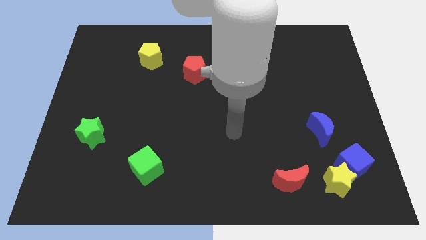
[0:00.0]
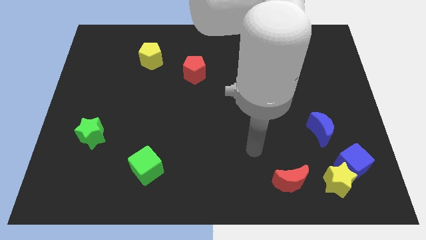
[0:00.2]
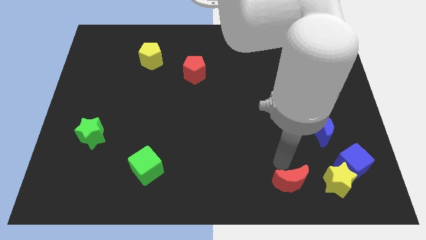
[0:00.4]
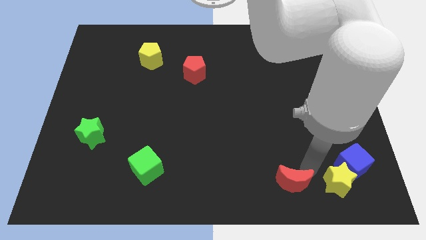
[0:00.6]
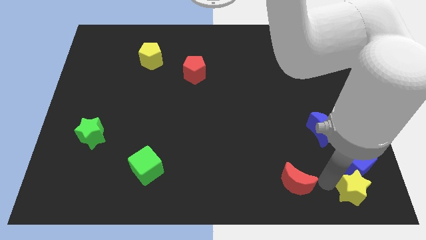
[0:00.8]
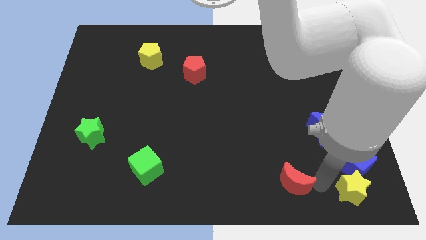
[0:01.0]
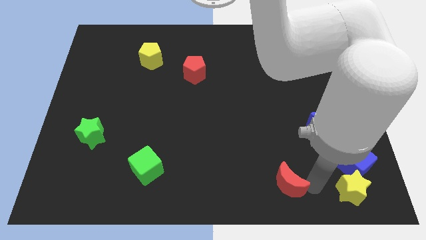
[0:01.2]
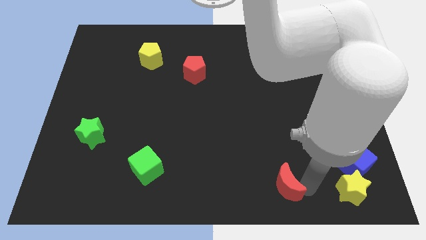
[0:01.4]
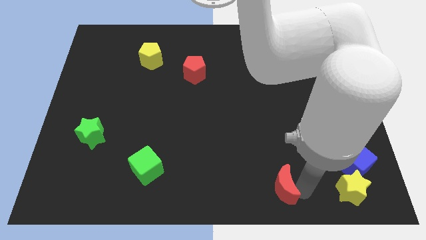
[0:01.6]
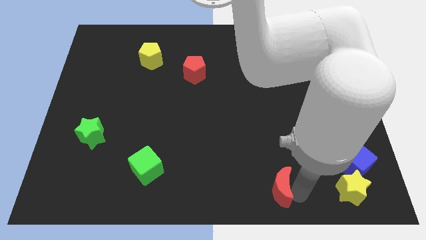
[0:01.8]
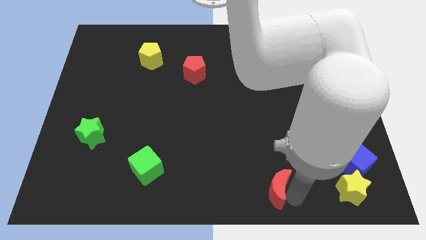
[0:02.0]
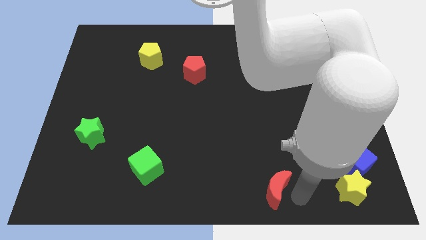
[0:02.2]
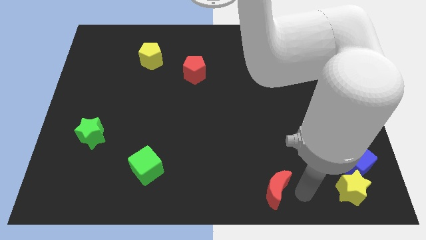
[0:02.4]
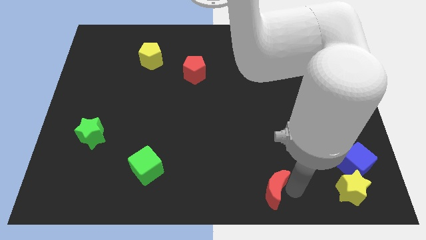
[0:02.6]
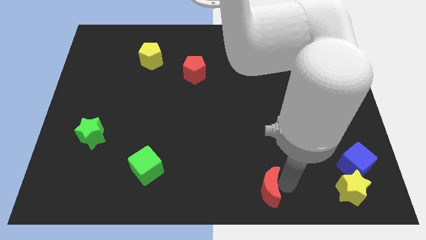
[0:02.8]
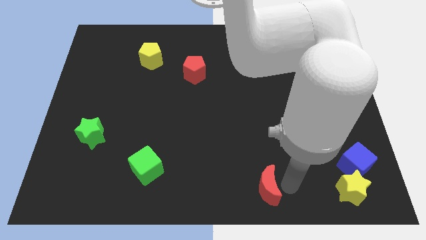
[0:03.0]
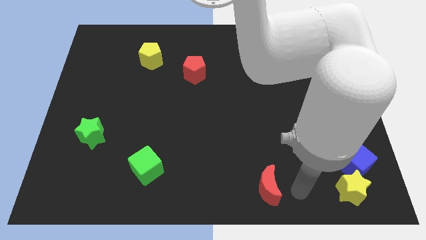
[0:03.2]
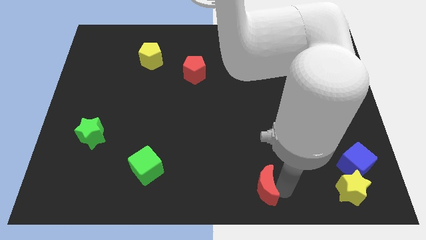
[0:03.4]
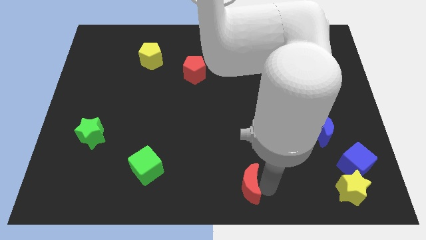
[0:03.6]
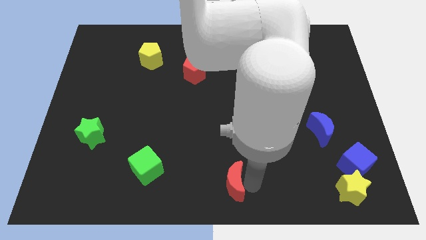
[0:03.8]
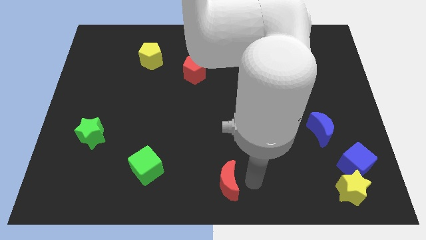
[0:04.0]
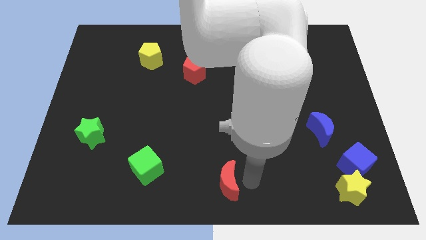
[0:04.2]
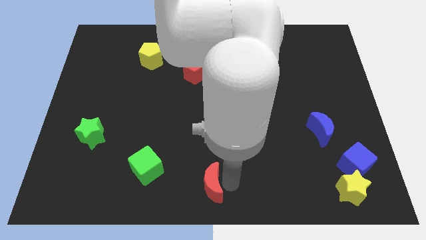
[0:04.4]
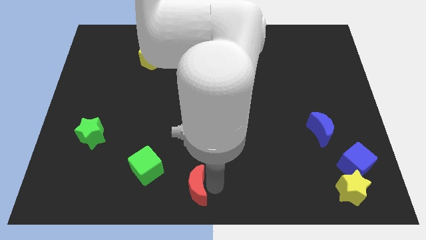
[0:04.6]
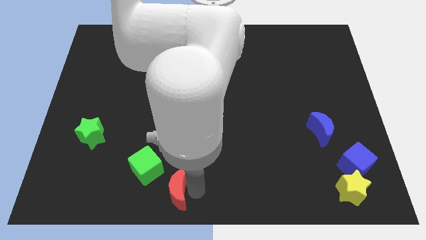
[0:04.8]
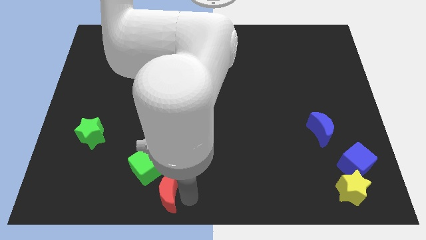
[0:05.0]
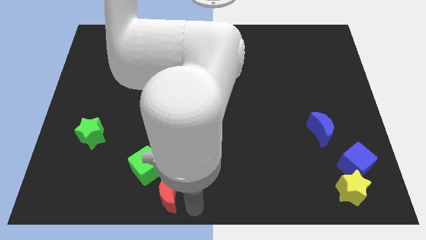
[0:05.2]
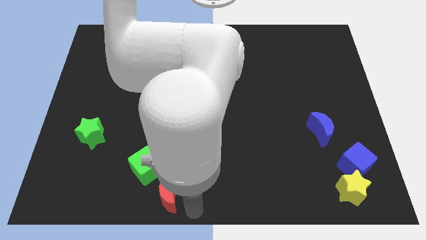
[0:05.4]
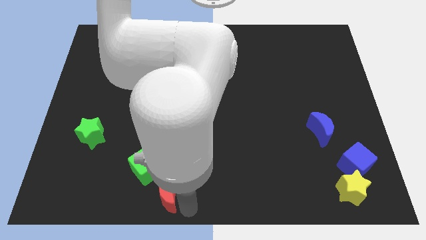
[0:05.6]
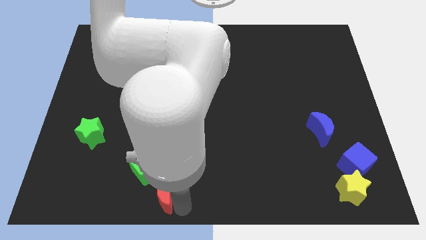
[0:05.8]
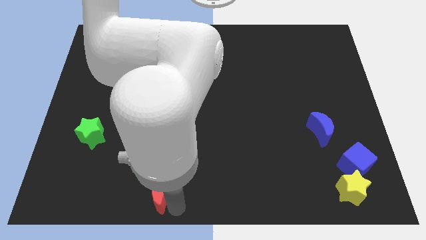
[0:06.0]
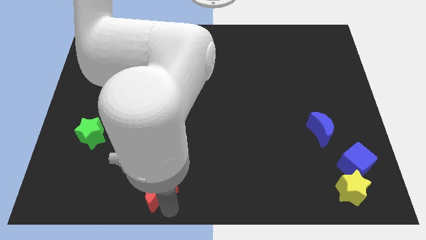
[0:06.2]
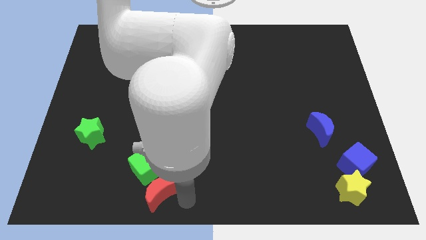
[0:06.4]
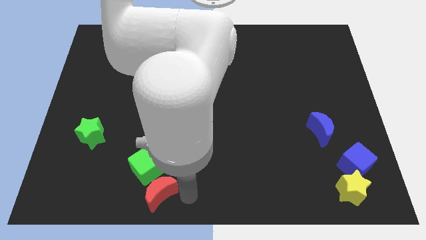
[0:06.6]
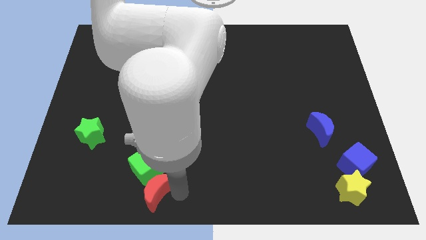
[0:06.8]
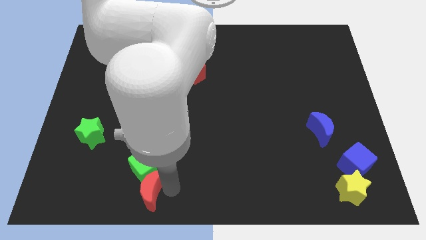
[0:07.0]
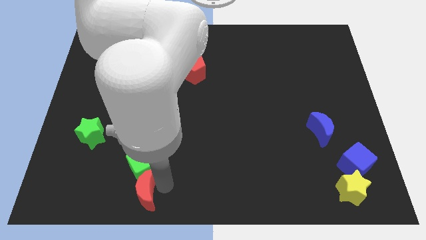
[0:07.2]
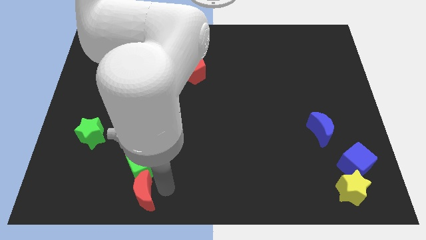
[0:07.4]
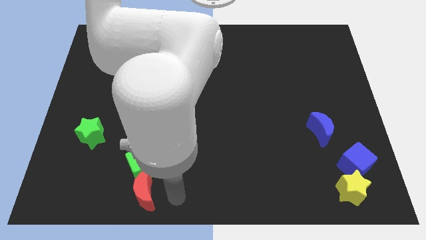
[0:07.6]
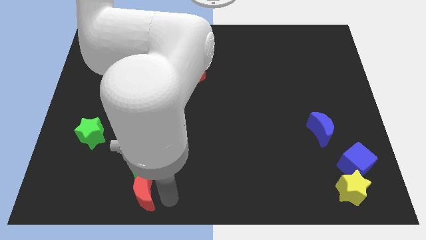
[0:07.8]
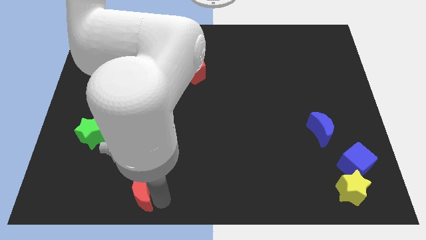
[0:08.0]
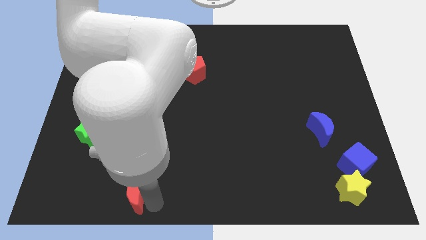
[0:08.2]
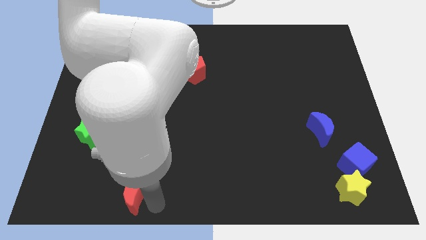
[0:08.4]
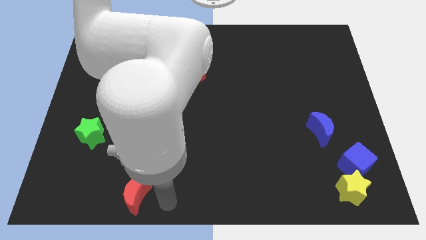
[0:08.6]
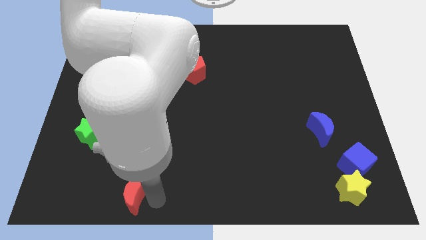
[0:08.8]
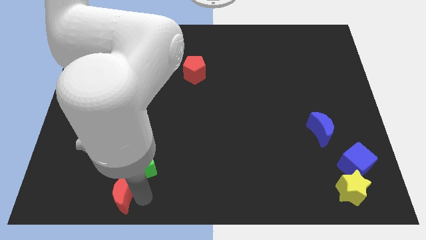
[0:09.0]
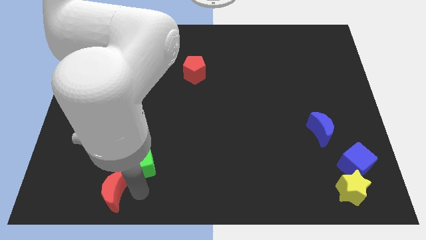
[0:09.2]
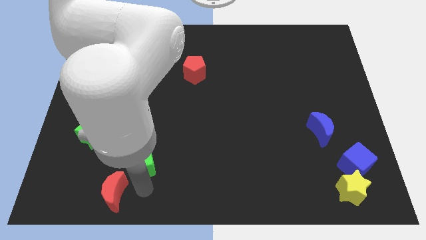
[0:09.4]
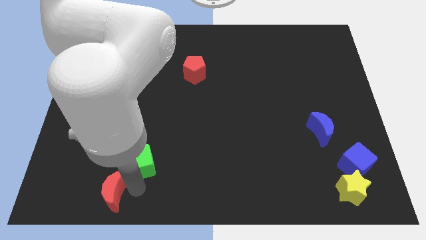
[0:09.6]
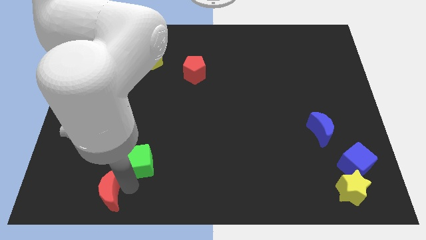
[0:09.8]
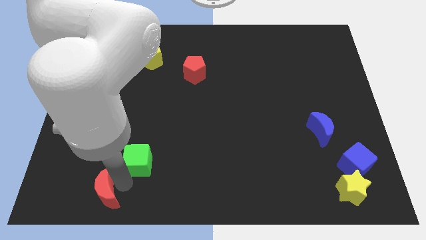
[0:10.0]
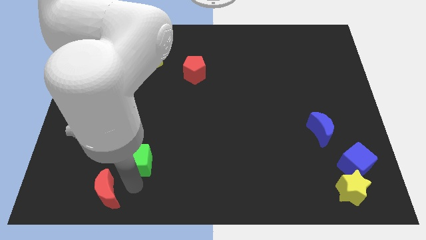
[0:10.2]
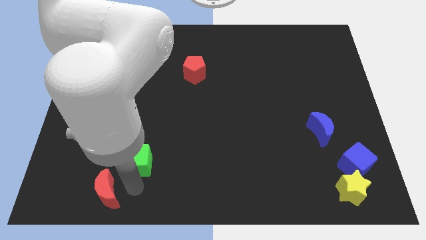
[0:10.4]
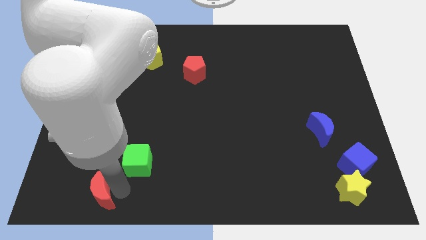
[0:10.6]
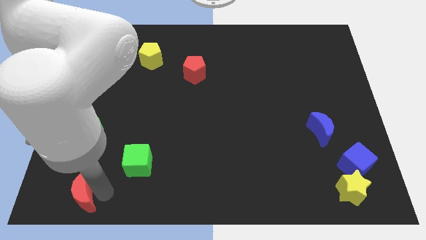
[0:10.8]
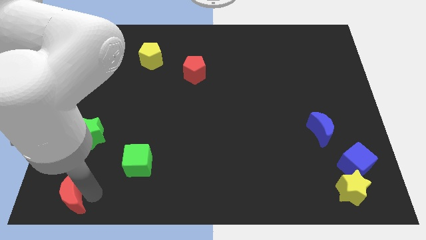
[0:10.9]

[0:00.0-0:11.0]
move the red moon to the bottom left corner

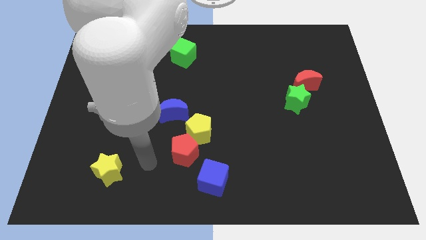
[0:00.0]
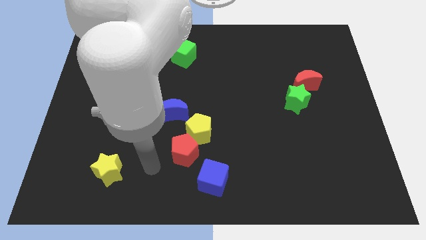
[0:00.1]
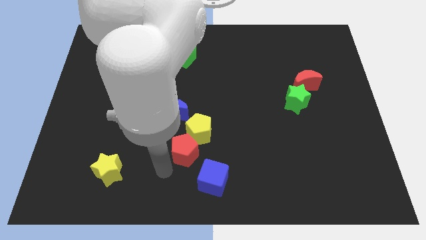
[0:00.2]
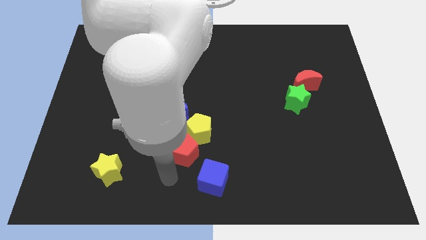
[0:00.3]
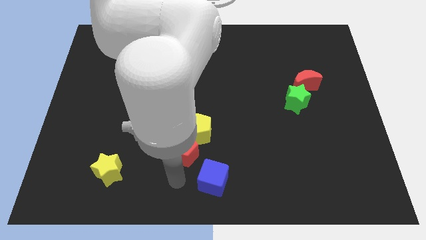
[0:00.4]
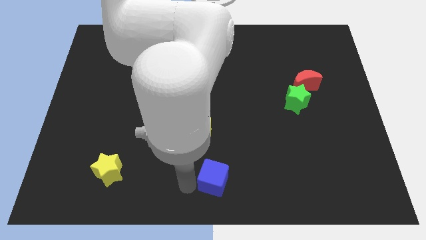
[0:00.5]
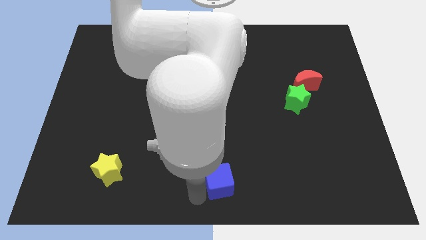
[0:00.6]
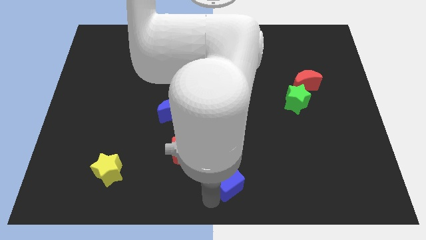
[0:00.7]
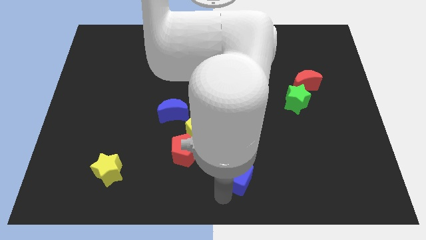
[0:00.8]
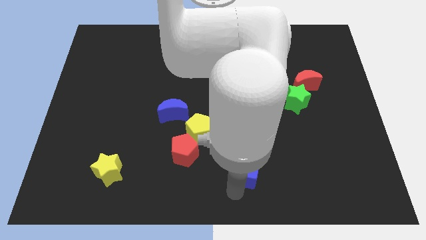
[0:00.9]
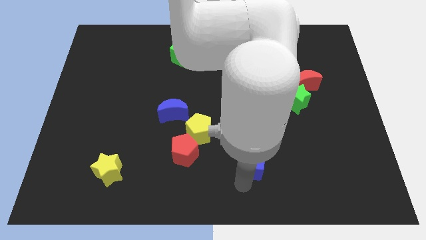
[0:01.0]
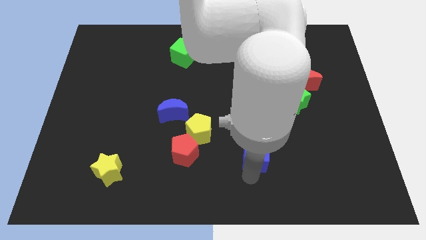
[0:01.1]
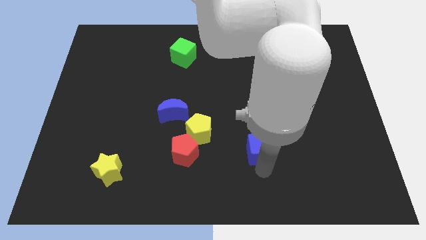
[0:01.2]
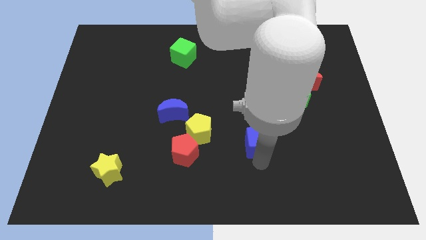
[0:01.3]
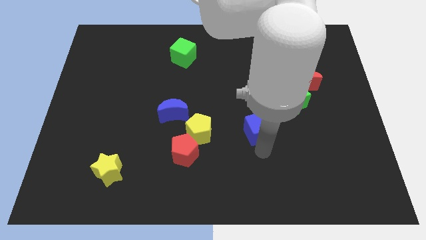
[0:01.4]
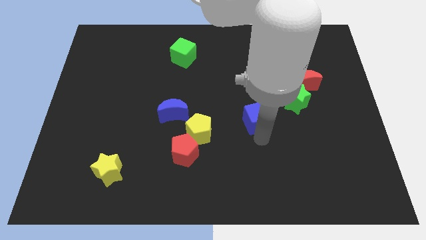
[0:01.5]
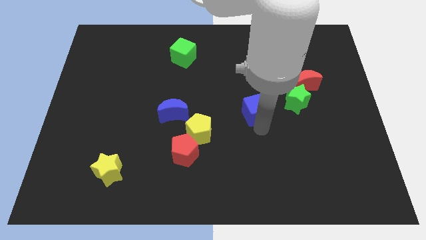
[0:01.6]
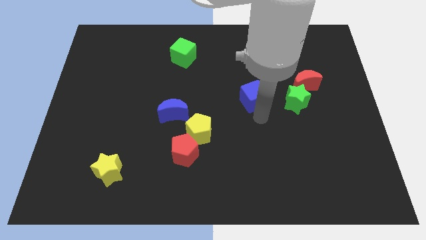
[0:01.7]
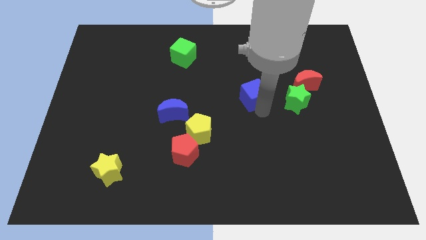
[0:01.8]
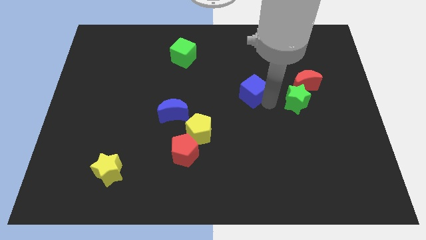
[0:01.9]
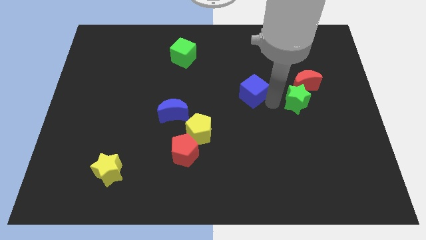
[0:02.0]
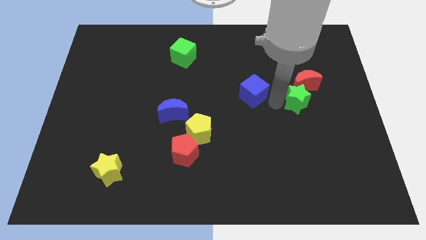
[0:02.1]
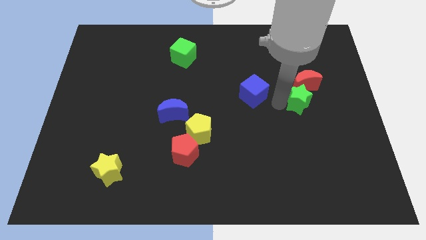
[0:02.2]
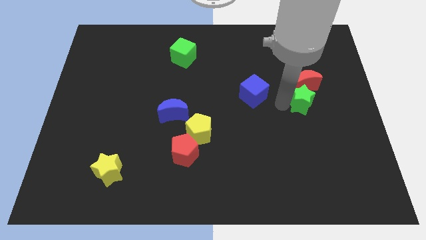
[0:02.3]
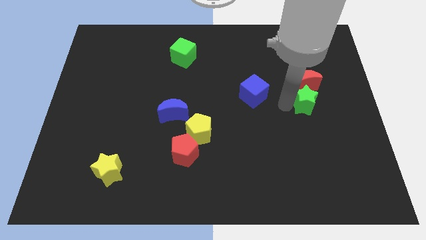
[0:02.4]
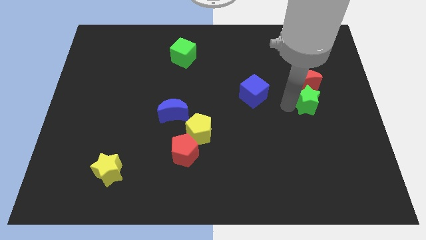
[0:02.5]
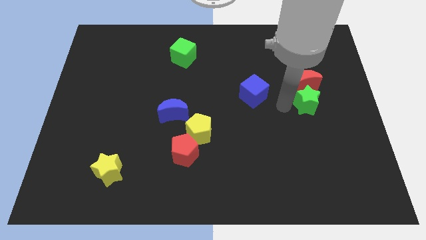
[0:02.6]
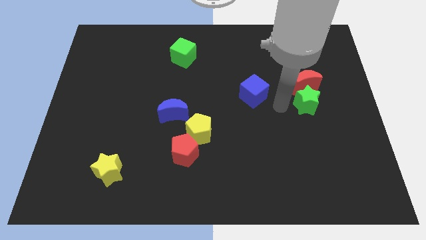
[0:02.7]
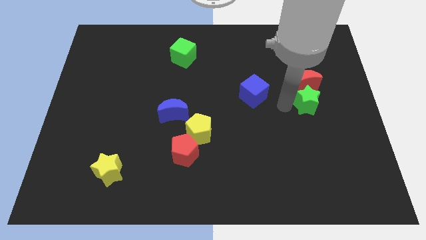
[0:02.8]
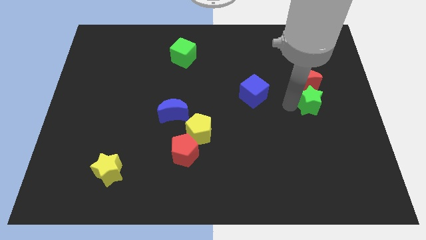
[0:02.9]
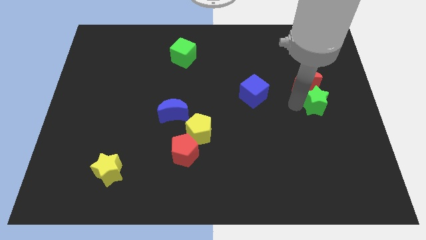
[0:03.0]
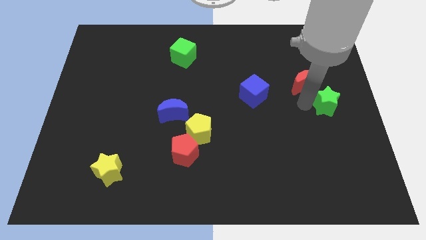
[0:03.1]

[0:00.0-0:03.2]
put the green star to the center right
